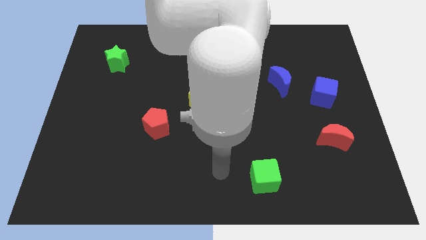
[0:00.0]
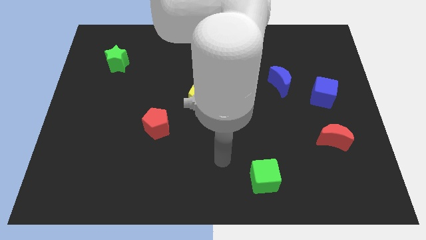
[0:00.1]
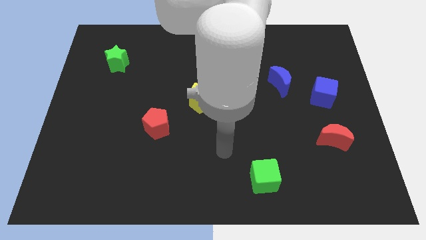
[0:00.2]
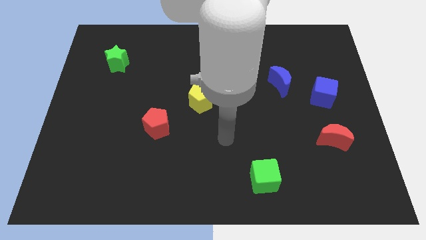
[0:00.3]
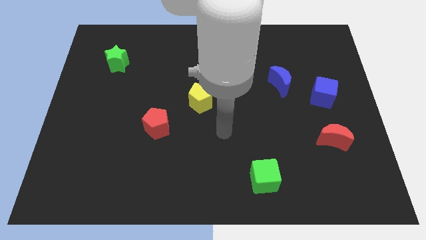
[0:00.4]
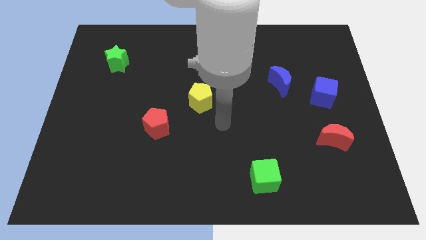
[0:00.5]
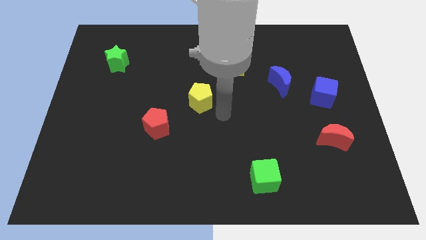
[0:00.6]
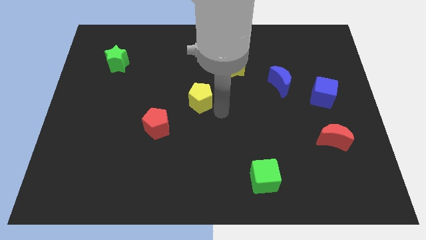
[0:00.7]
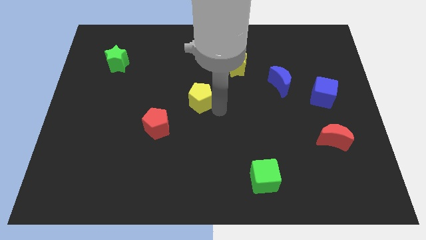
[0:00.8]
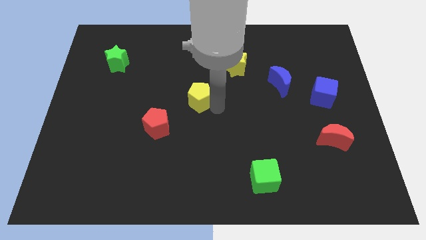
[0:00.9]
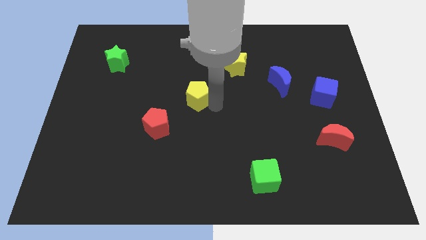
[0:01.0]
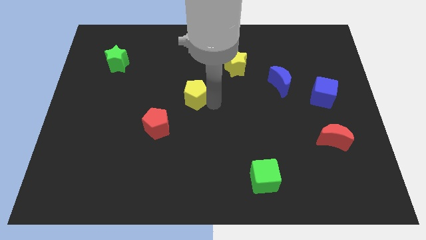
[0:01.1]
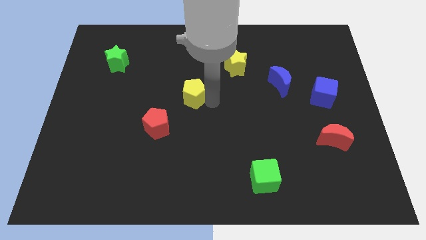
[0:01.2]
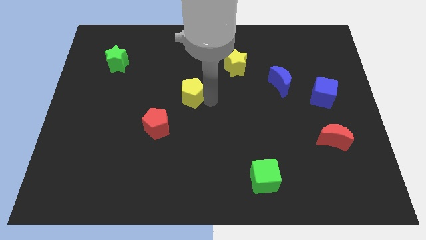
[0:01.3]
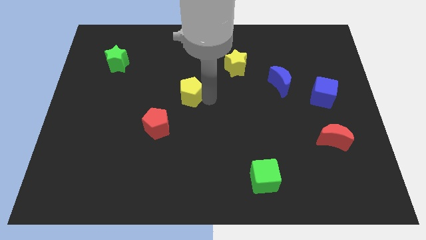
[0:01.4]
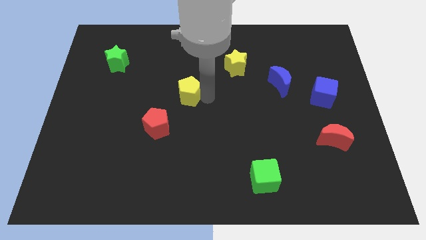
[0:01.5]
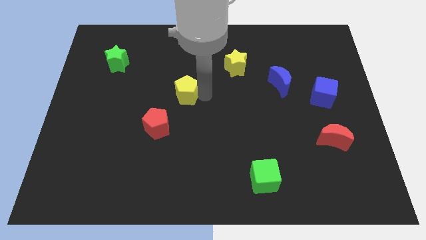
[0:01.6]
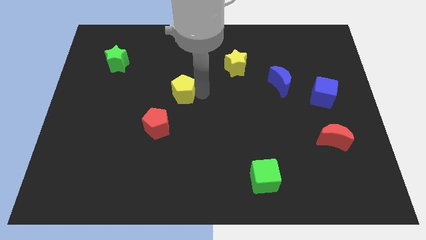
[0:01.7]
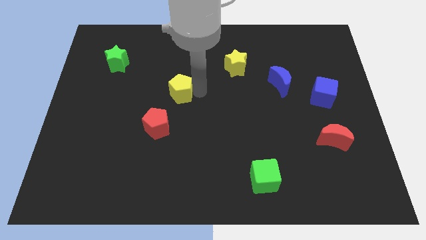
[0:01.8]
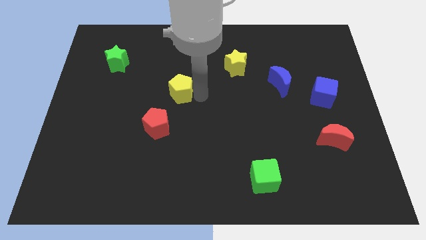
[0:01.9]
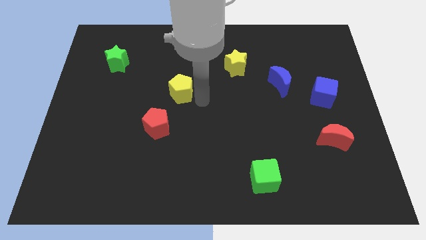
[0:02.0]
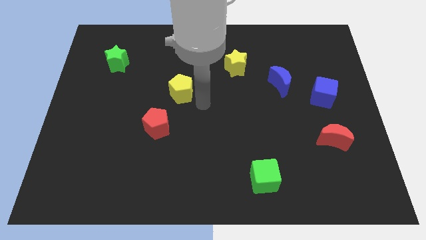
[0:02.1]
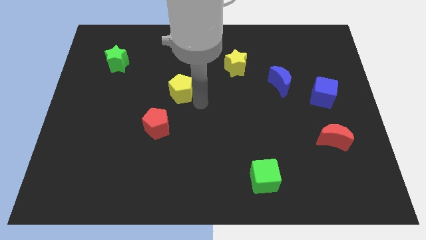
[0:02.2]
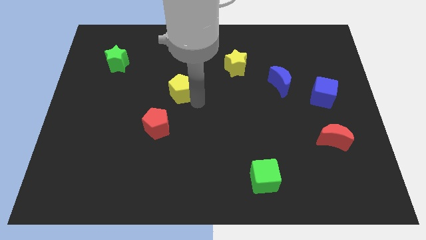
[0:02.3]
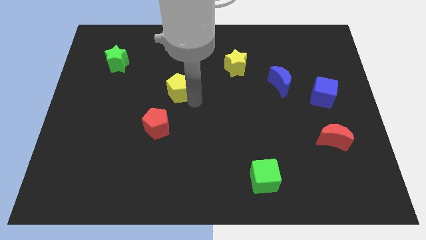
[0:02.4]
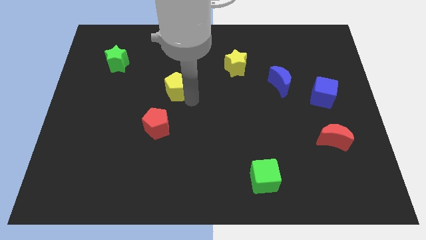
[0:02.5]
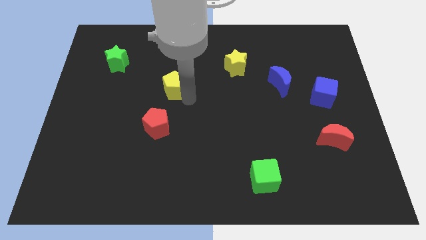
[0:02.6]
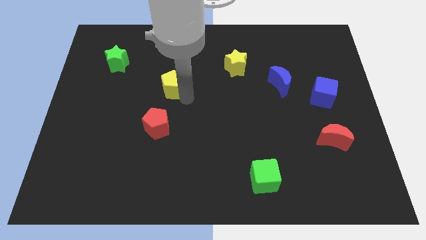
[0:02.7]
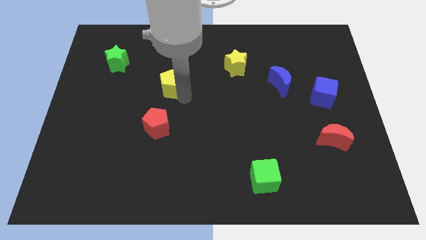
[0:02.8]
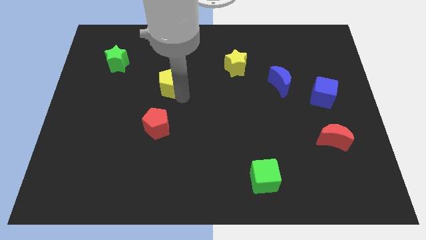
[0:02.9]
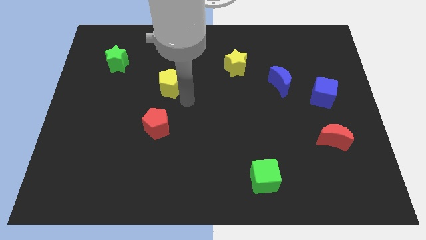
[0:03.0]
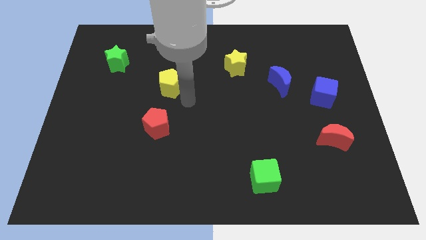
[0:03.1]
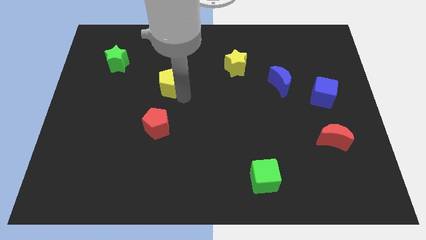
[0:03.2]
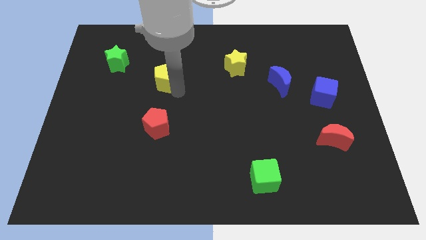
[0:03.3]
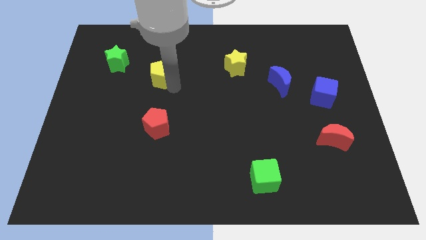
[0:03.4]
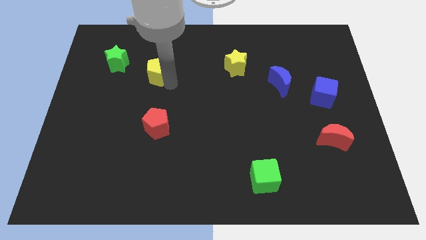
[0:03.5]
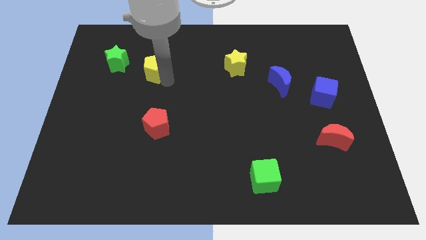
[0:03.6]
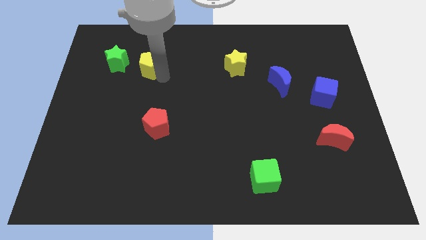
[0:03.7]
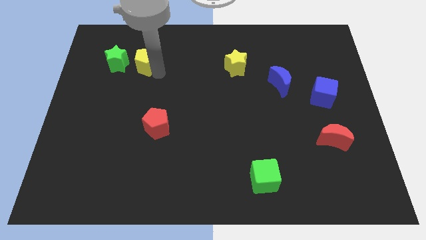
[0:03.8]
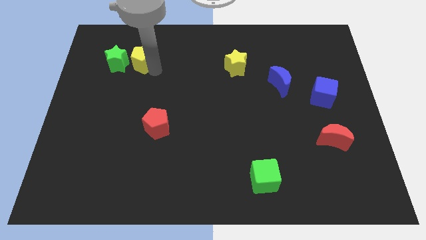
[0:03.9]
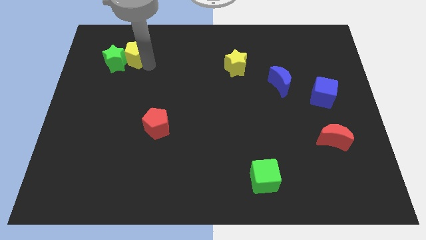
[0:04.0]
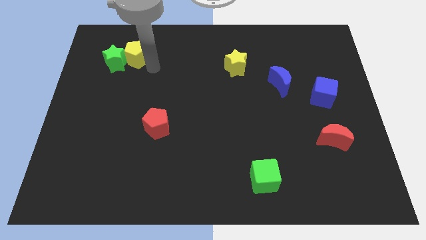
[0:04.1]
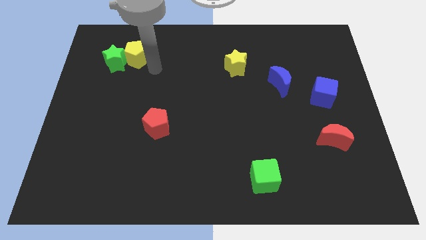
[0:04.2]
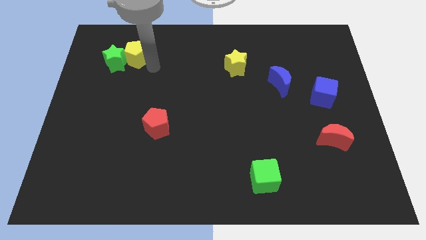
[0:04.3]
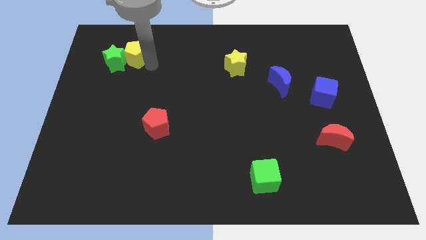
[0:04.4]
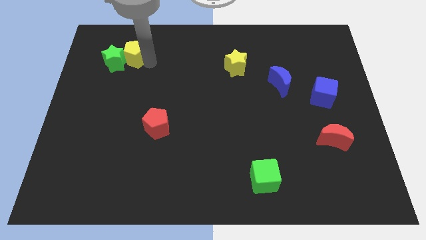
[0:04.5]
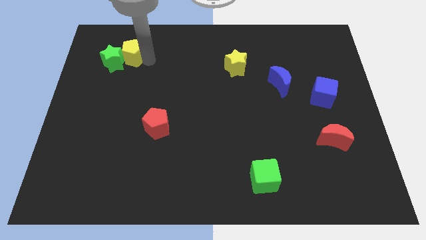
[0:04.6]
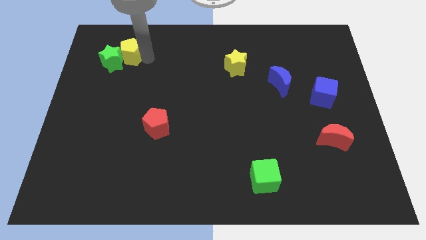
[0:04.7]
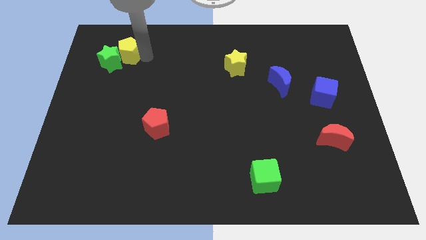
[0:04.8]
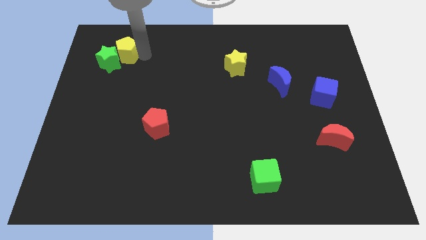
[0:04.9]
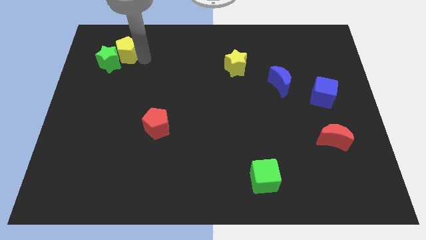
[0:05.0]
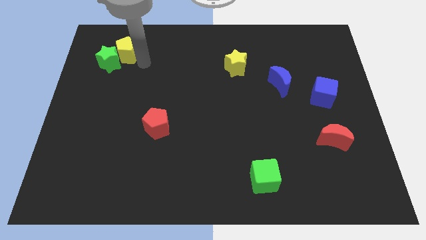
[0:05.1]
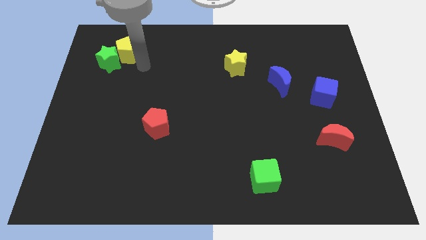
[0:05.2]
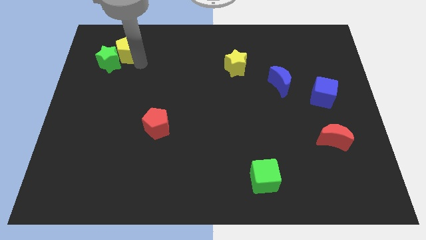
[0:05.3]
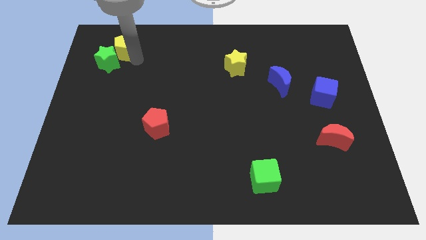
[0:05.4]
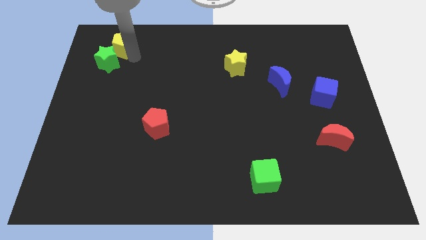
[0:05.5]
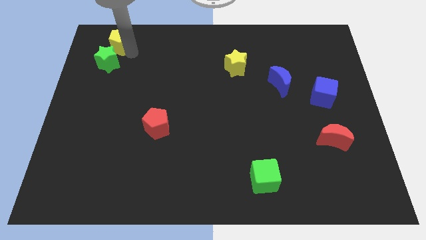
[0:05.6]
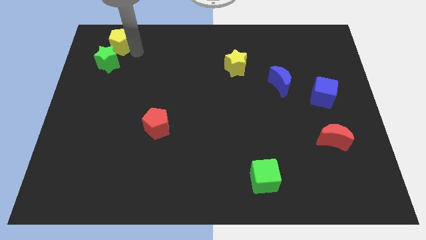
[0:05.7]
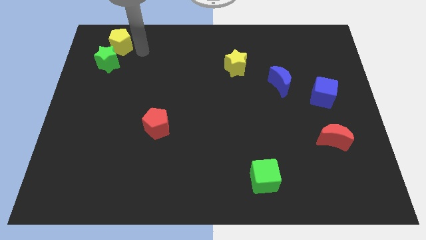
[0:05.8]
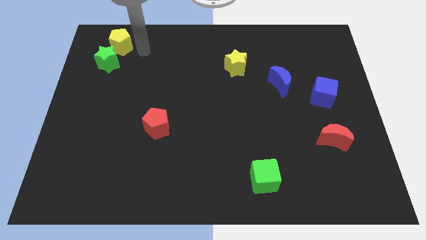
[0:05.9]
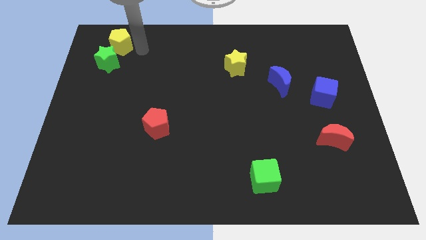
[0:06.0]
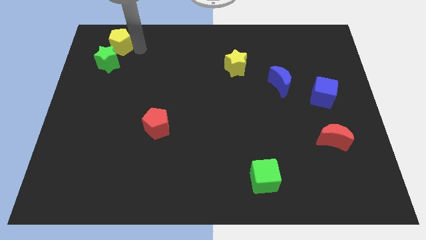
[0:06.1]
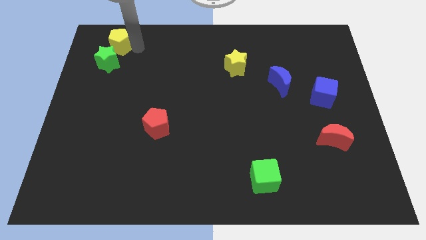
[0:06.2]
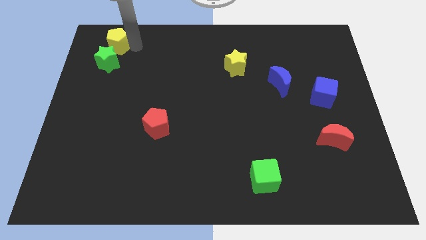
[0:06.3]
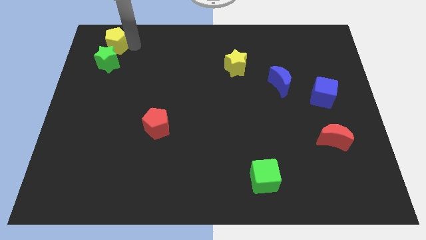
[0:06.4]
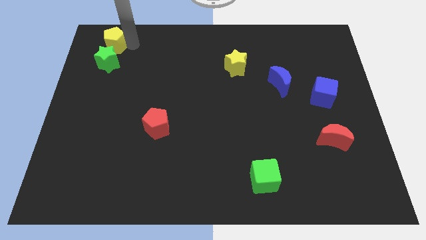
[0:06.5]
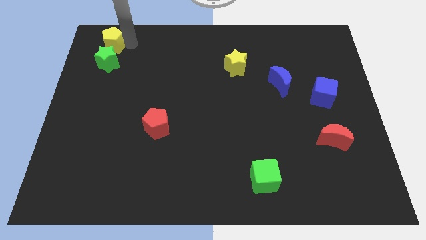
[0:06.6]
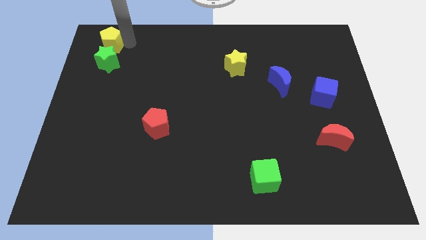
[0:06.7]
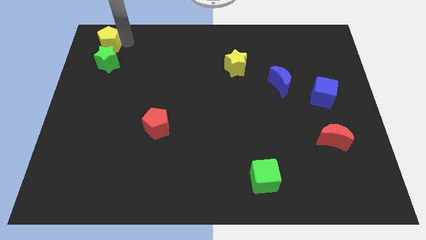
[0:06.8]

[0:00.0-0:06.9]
move the yellow pentagon to the top left
